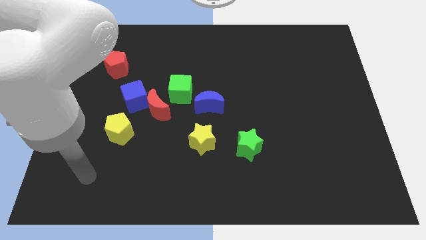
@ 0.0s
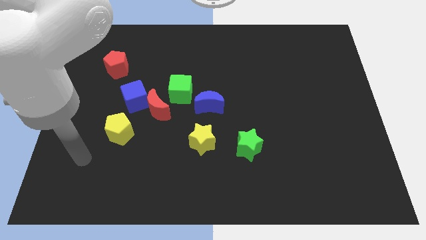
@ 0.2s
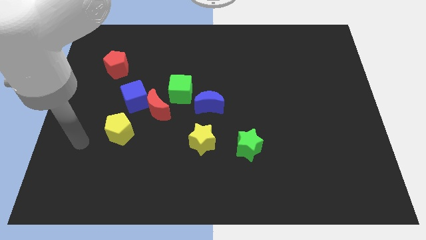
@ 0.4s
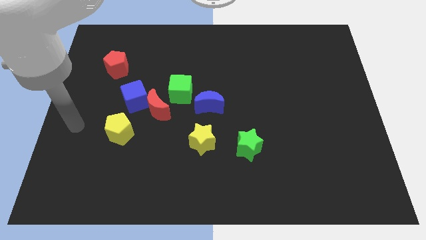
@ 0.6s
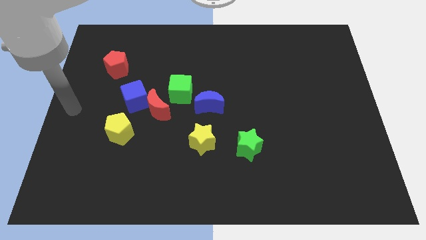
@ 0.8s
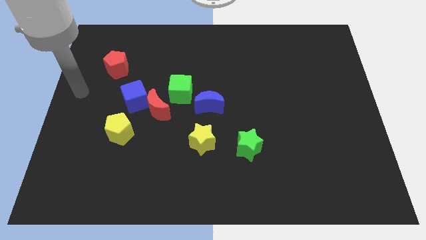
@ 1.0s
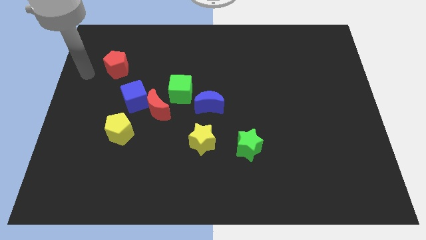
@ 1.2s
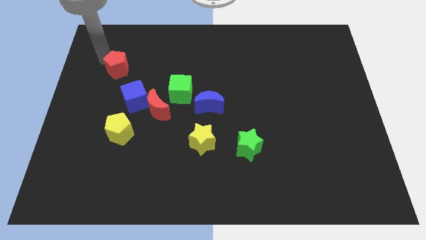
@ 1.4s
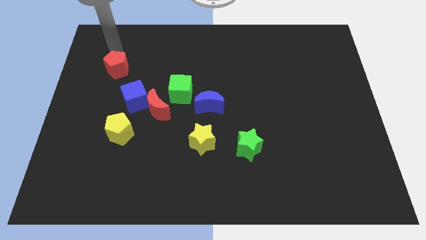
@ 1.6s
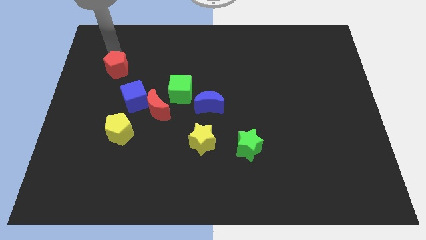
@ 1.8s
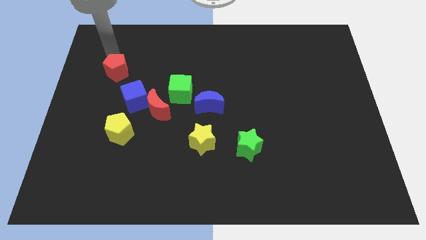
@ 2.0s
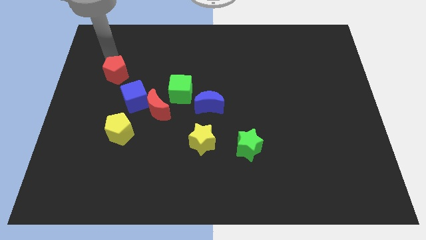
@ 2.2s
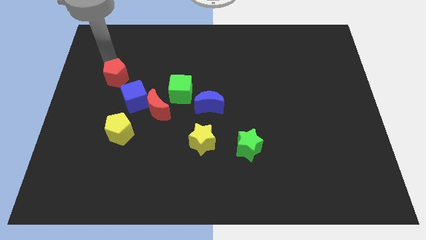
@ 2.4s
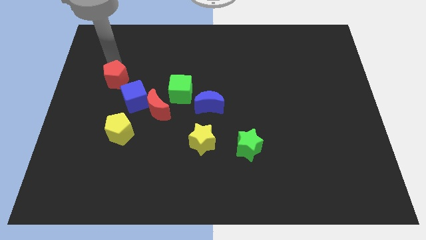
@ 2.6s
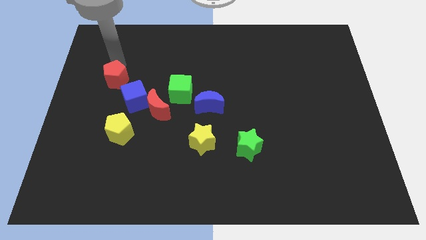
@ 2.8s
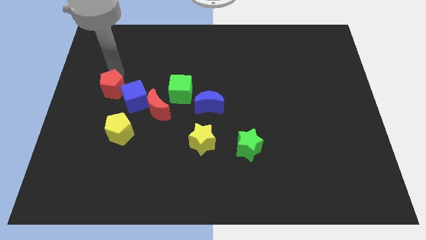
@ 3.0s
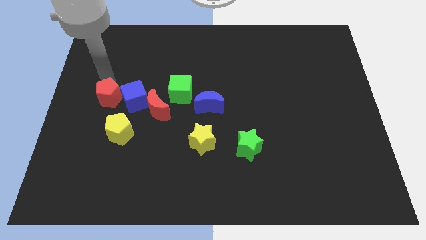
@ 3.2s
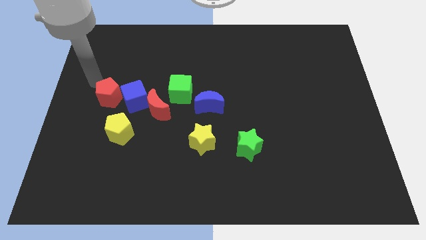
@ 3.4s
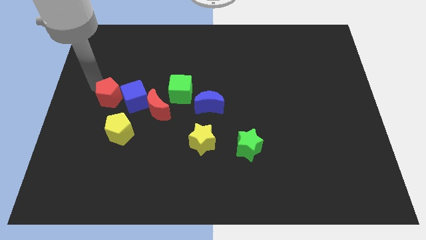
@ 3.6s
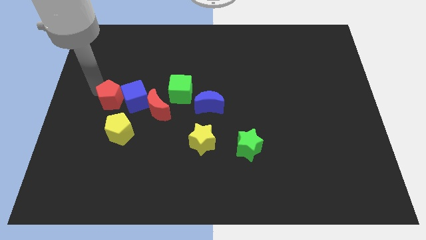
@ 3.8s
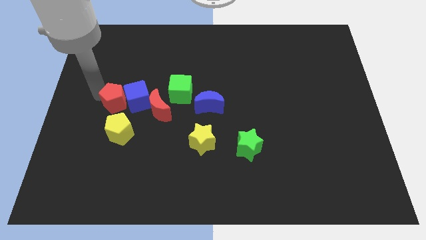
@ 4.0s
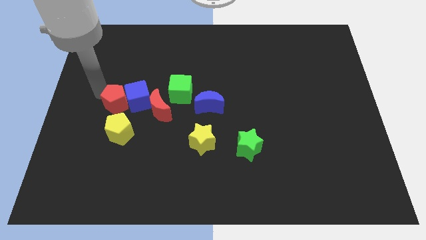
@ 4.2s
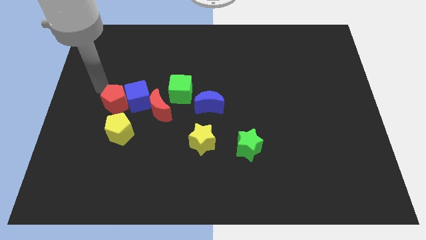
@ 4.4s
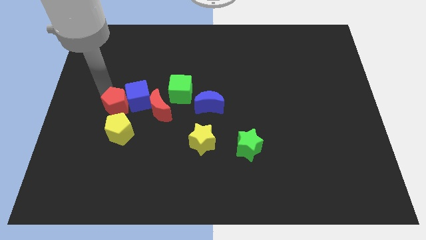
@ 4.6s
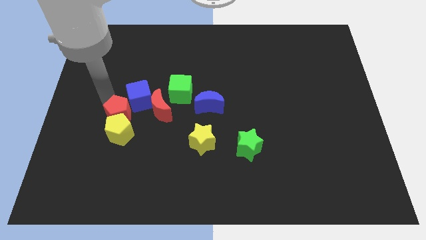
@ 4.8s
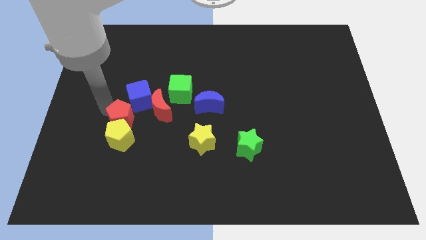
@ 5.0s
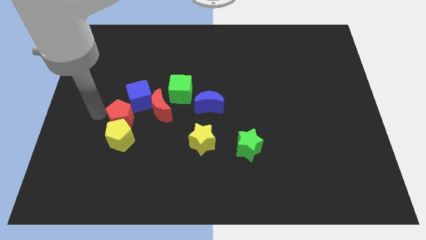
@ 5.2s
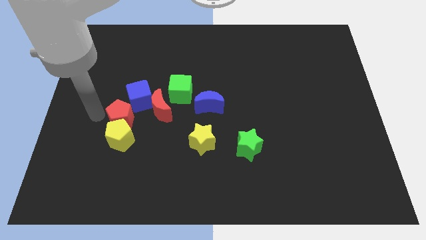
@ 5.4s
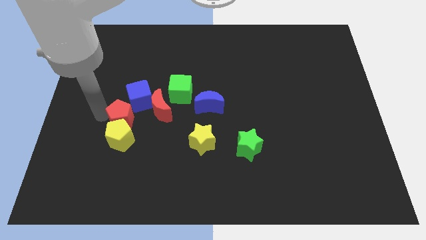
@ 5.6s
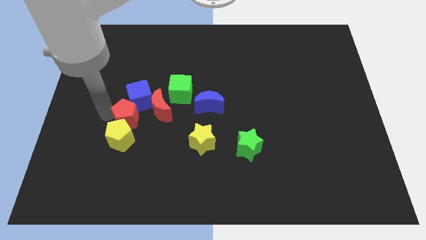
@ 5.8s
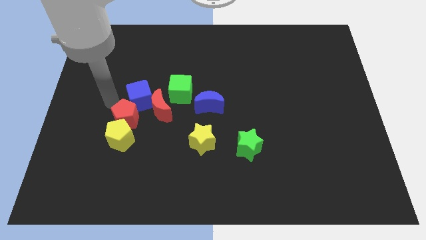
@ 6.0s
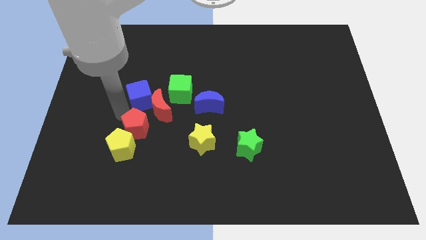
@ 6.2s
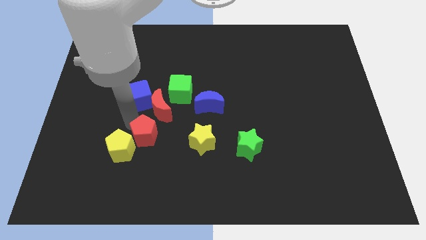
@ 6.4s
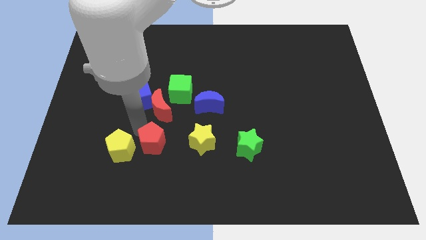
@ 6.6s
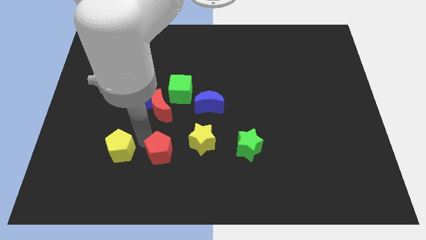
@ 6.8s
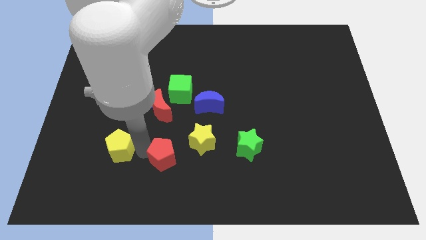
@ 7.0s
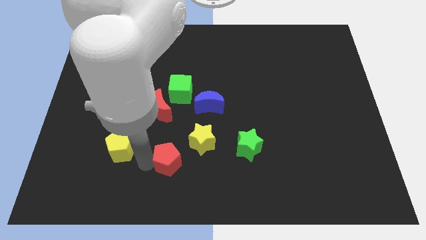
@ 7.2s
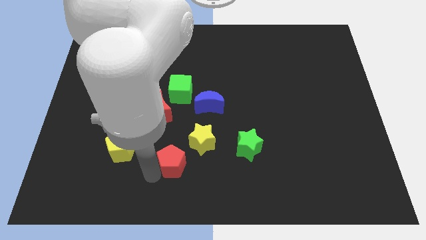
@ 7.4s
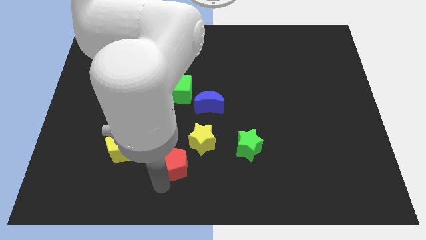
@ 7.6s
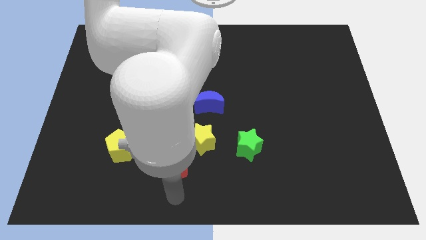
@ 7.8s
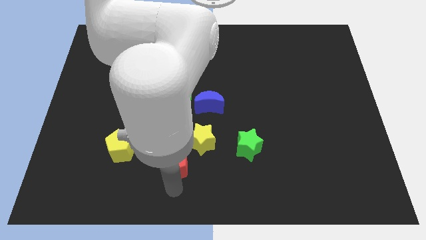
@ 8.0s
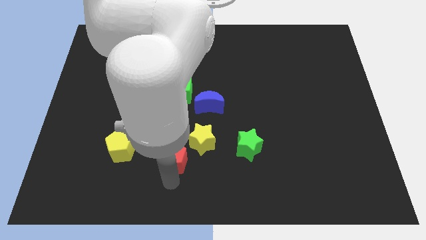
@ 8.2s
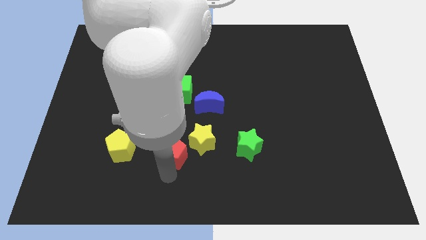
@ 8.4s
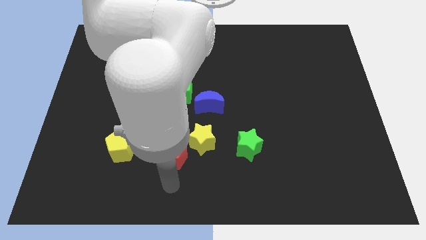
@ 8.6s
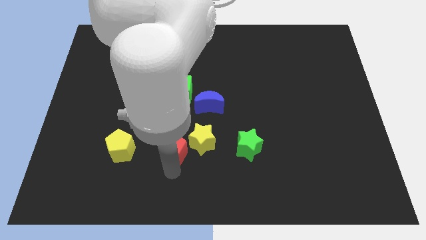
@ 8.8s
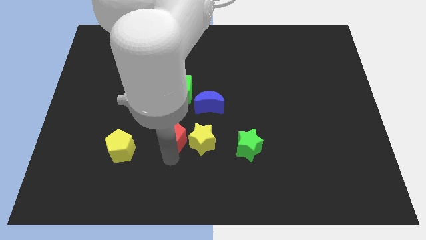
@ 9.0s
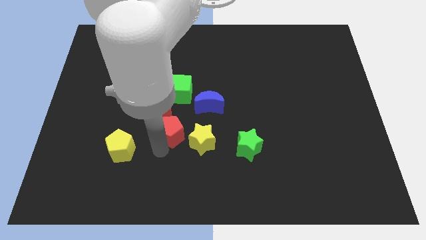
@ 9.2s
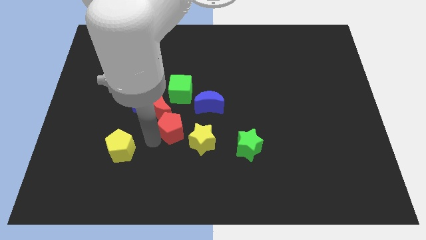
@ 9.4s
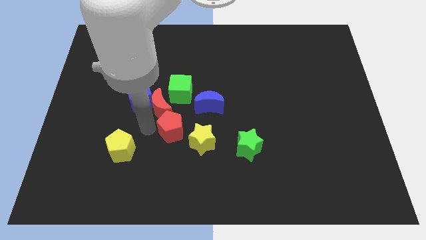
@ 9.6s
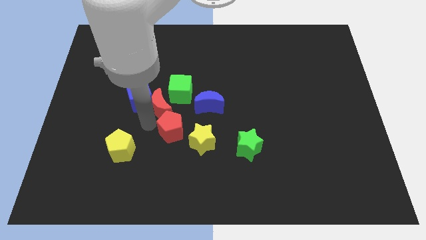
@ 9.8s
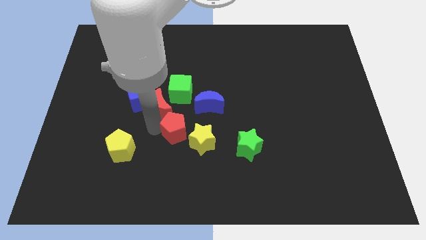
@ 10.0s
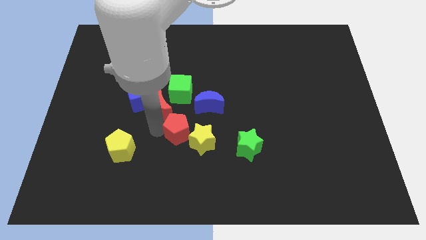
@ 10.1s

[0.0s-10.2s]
move the red pentagon to the yellow star

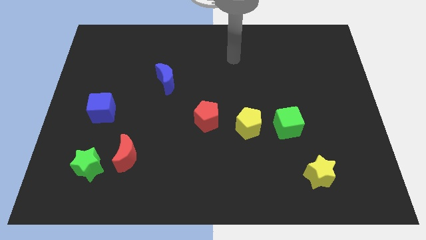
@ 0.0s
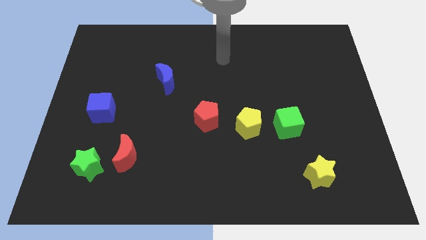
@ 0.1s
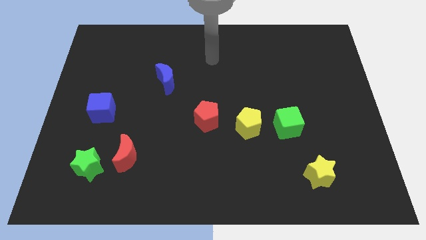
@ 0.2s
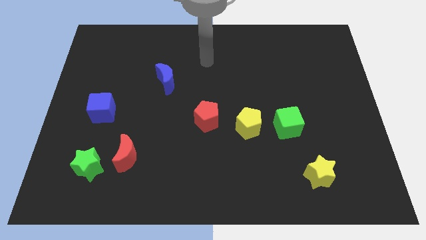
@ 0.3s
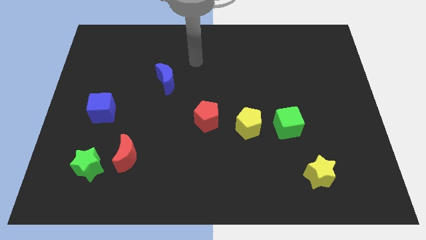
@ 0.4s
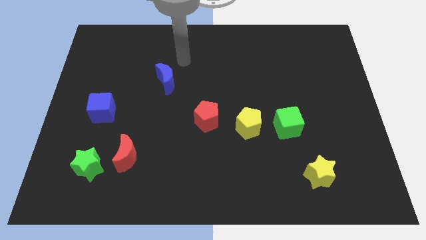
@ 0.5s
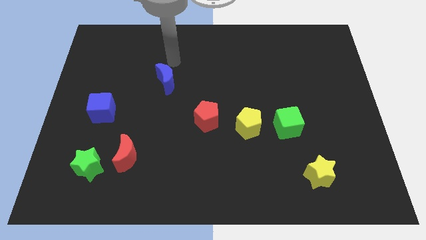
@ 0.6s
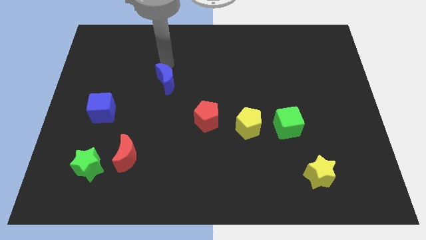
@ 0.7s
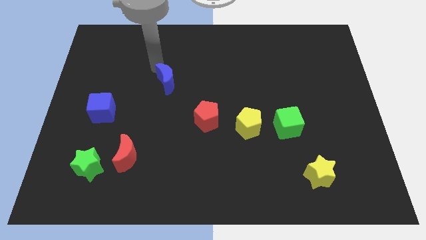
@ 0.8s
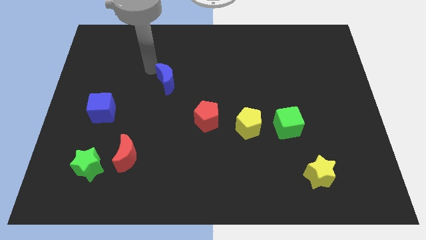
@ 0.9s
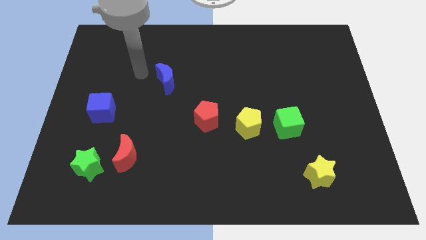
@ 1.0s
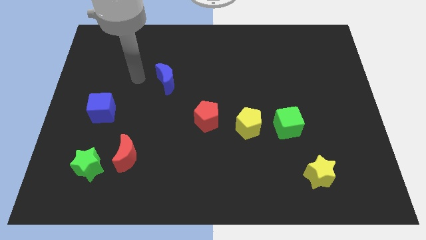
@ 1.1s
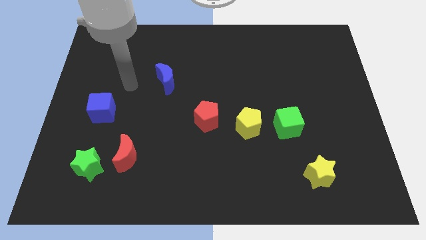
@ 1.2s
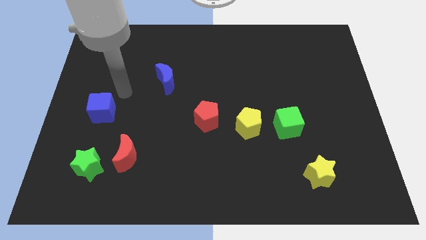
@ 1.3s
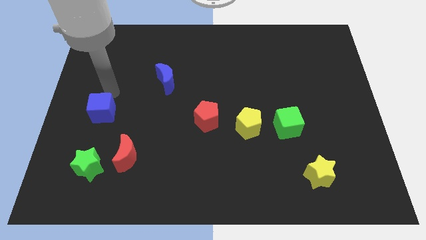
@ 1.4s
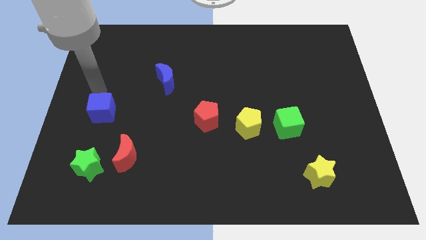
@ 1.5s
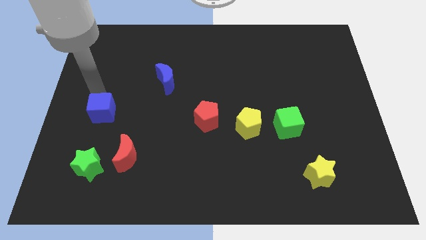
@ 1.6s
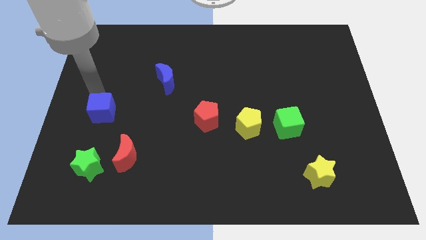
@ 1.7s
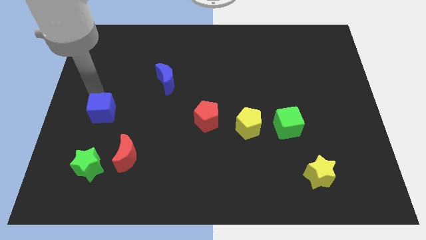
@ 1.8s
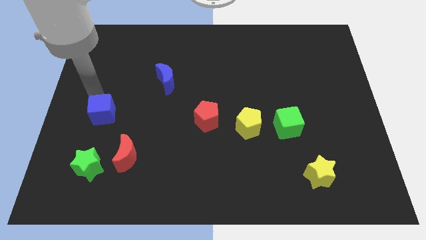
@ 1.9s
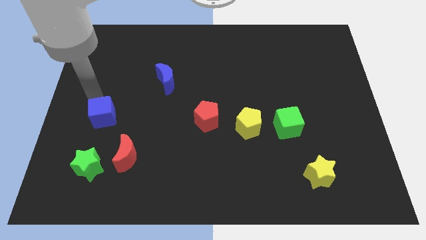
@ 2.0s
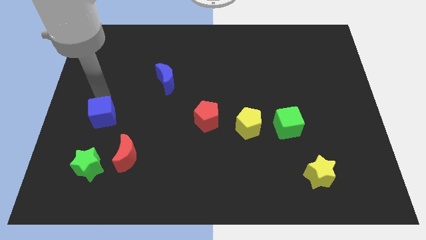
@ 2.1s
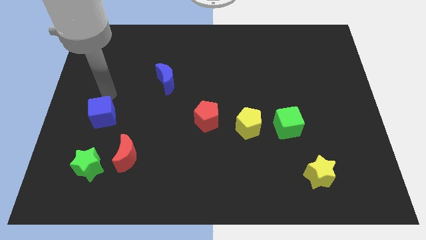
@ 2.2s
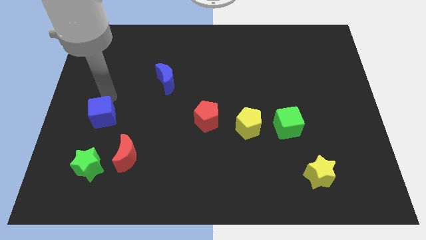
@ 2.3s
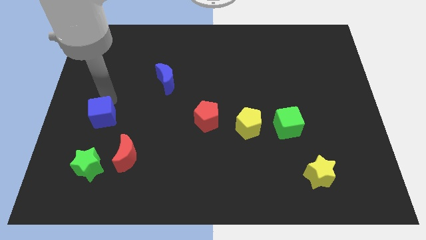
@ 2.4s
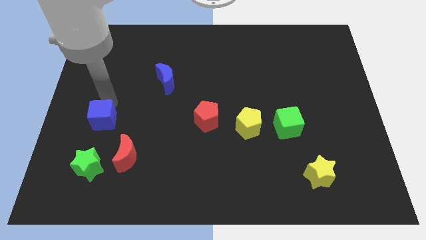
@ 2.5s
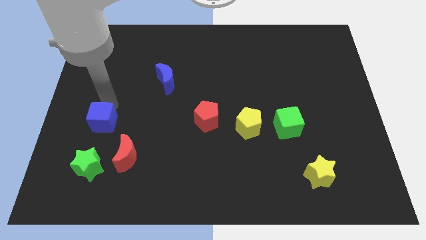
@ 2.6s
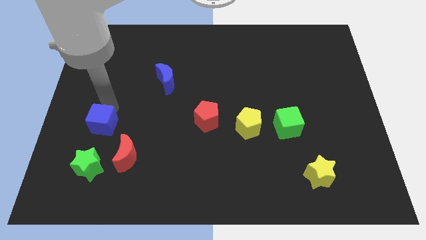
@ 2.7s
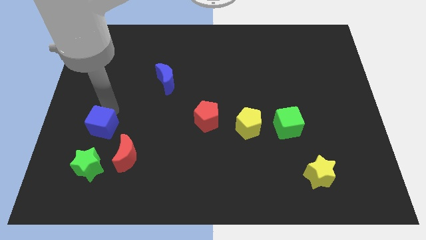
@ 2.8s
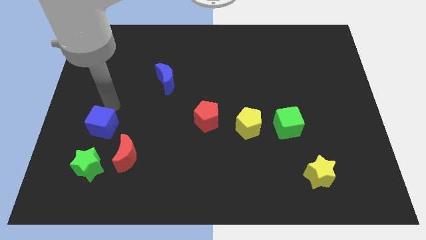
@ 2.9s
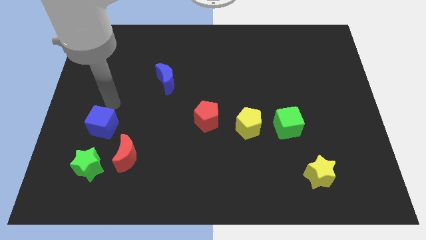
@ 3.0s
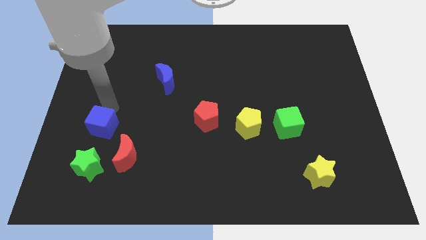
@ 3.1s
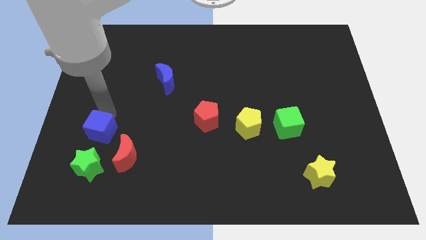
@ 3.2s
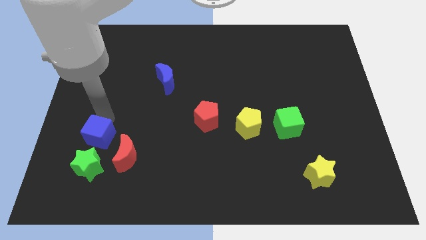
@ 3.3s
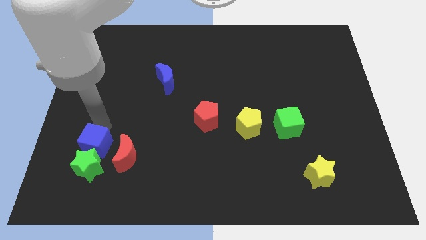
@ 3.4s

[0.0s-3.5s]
push the blue cube towards the green star
